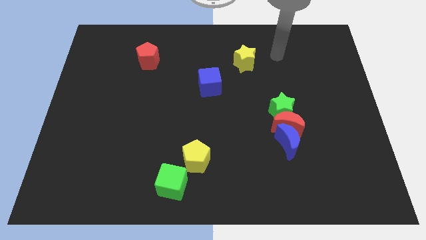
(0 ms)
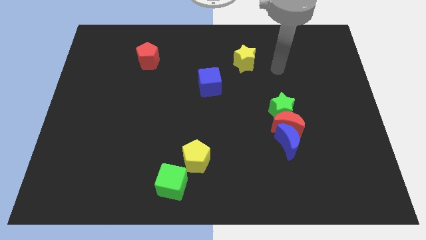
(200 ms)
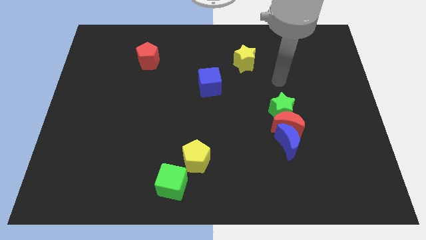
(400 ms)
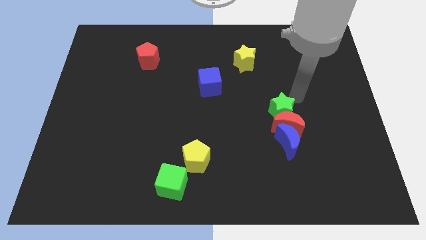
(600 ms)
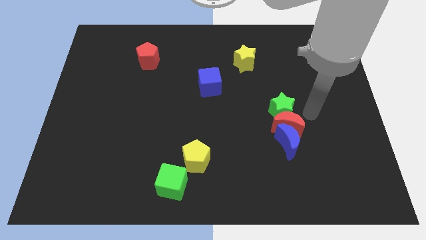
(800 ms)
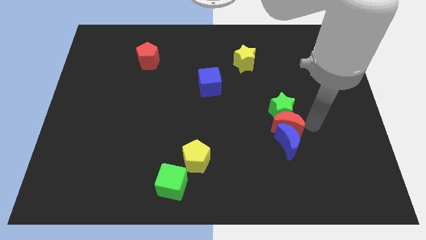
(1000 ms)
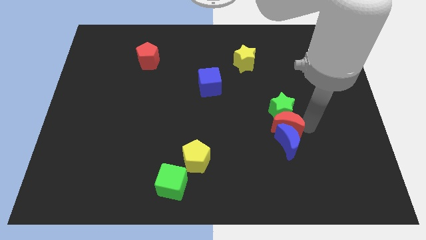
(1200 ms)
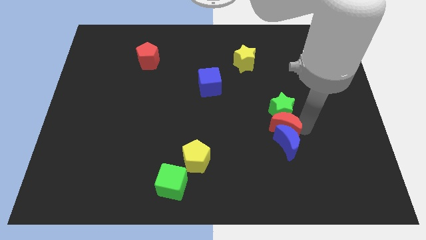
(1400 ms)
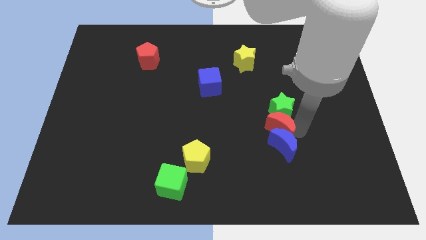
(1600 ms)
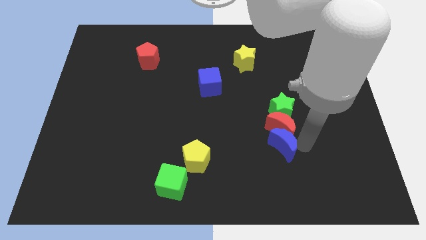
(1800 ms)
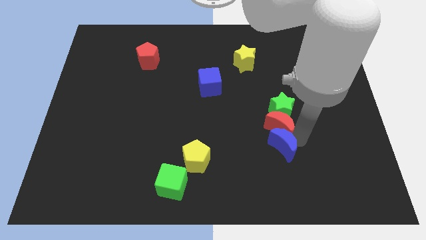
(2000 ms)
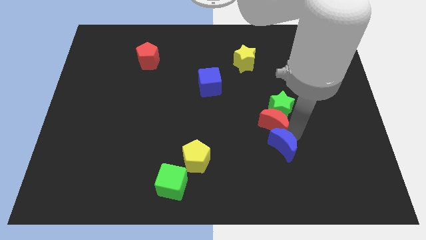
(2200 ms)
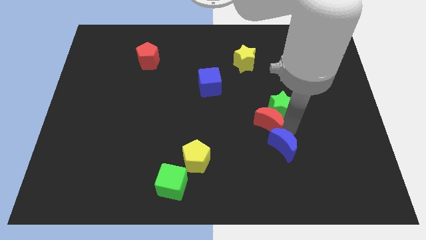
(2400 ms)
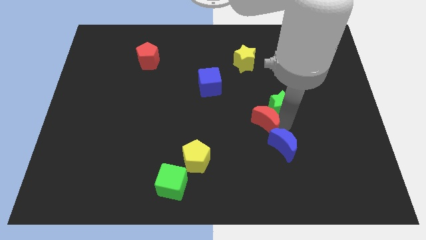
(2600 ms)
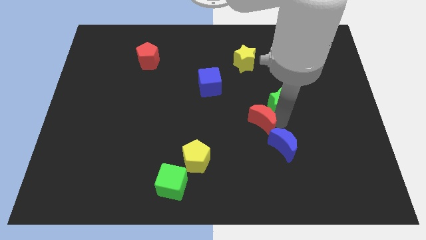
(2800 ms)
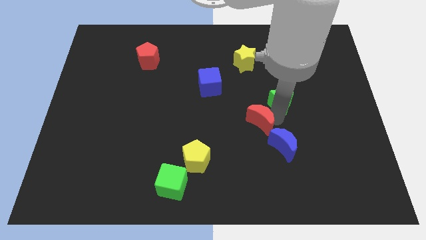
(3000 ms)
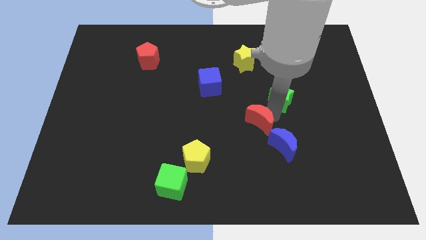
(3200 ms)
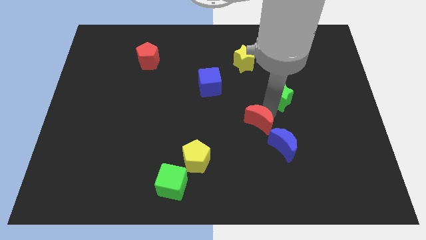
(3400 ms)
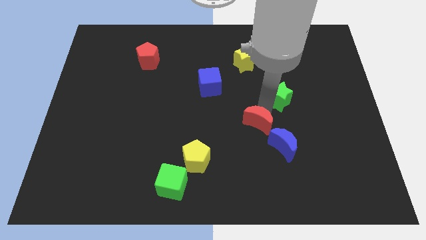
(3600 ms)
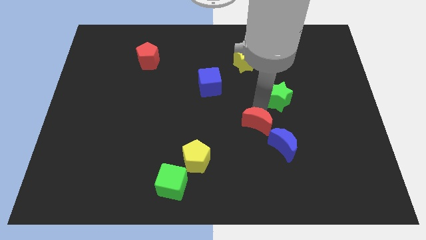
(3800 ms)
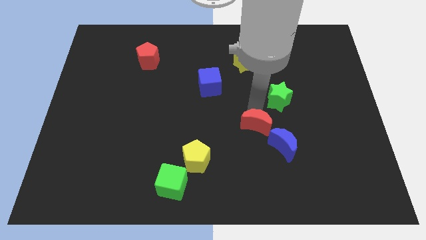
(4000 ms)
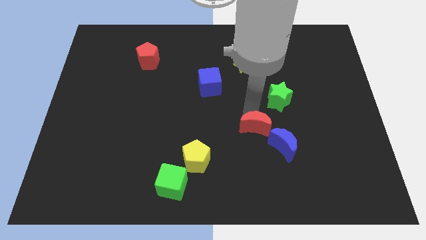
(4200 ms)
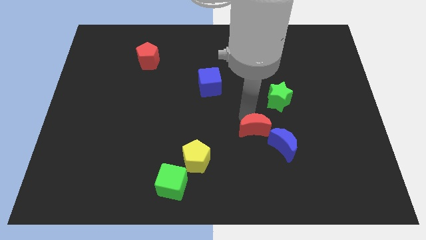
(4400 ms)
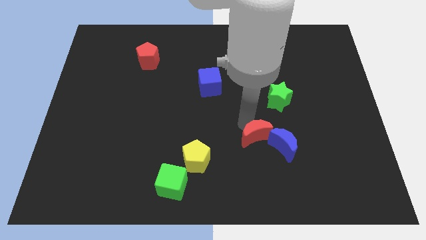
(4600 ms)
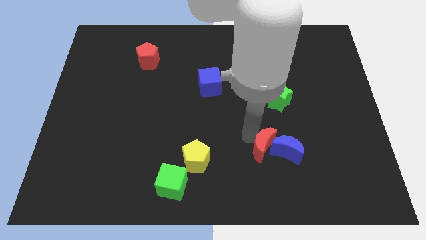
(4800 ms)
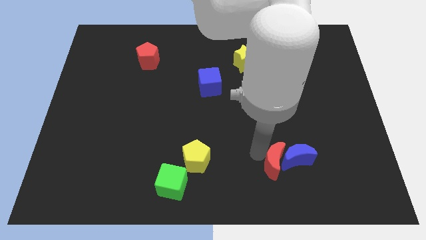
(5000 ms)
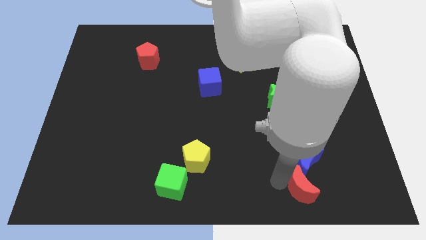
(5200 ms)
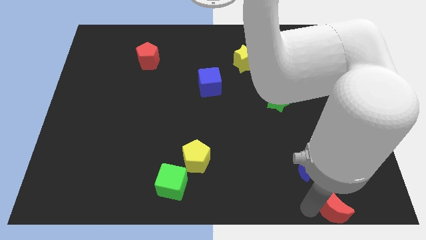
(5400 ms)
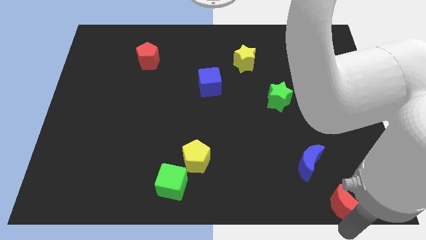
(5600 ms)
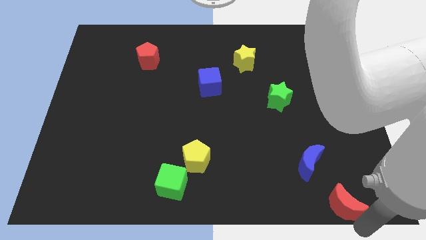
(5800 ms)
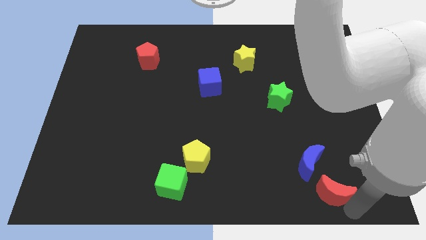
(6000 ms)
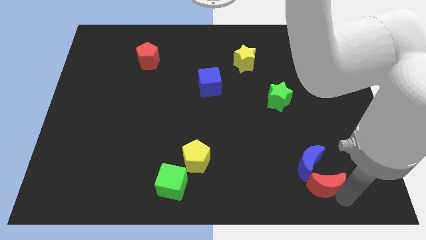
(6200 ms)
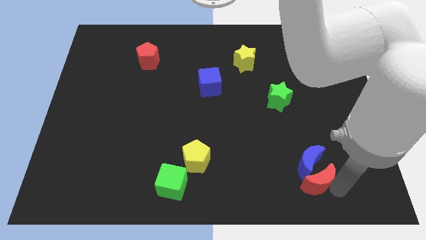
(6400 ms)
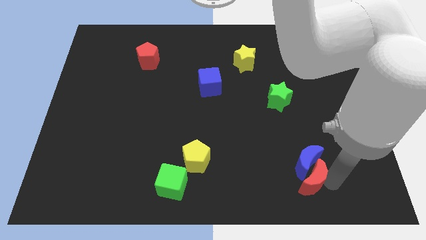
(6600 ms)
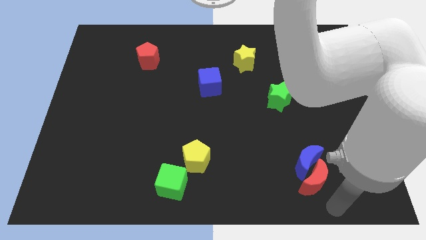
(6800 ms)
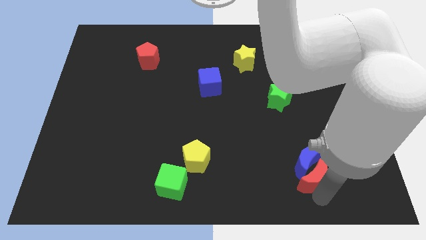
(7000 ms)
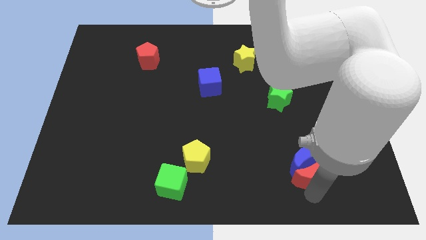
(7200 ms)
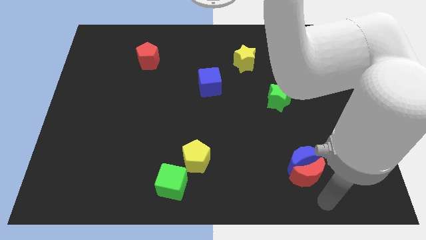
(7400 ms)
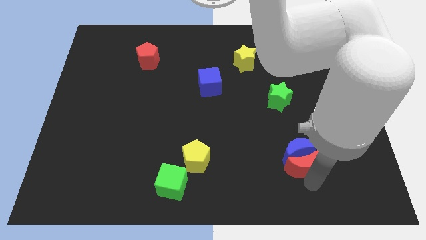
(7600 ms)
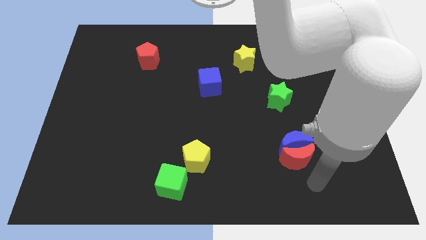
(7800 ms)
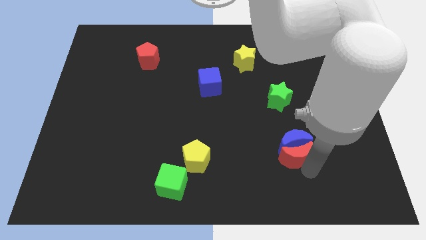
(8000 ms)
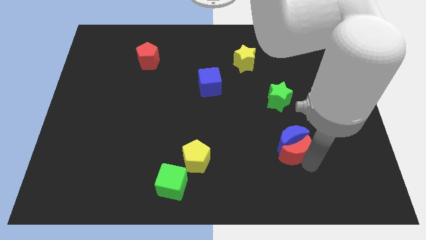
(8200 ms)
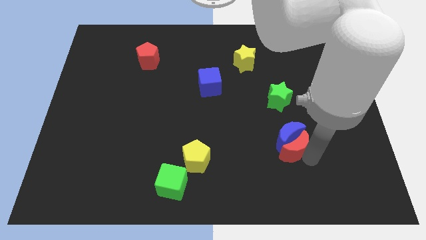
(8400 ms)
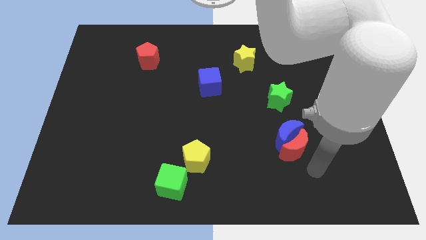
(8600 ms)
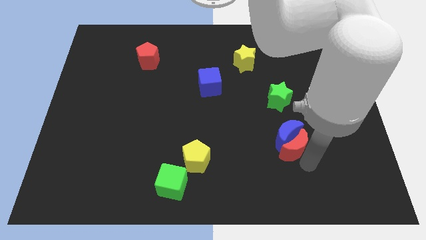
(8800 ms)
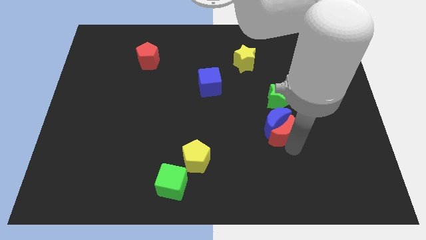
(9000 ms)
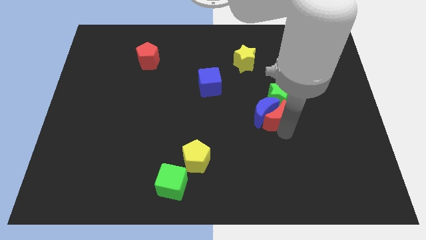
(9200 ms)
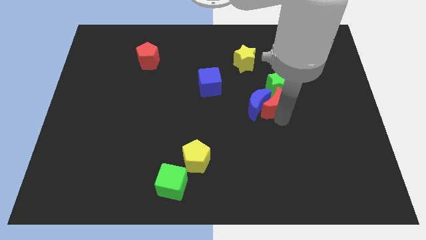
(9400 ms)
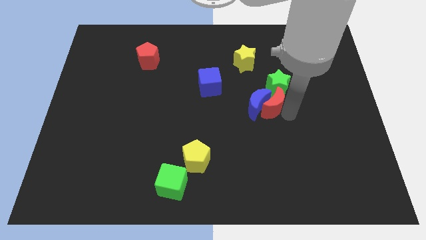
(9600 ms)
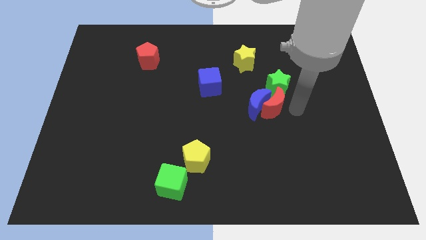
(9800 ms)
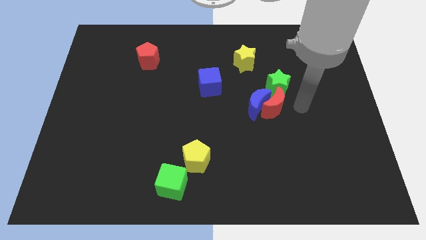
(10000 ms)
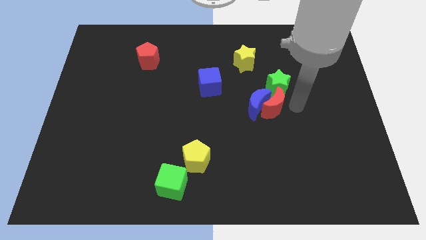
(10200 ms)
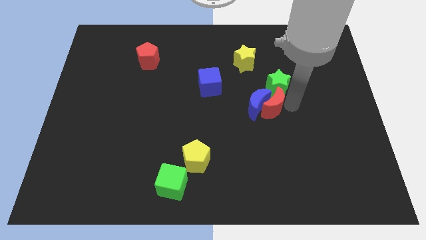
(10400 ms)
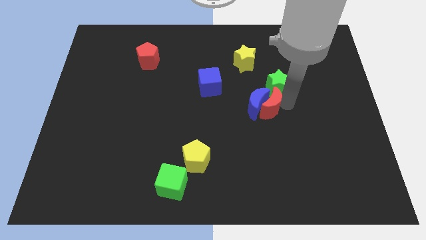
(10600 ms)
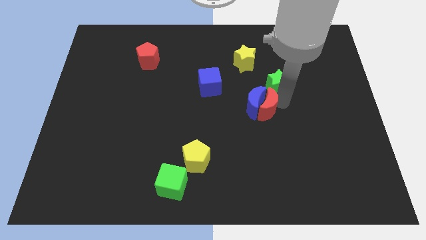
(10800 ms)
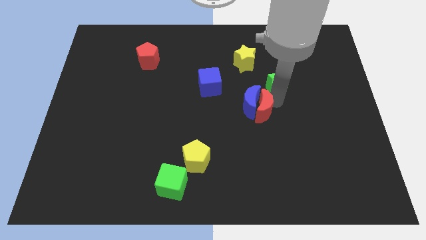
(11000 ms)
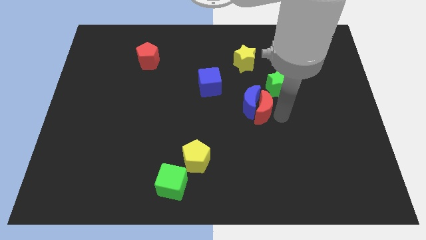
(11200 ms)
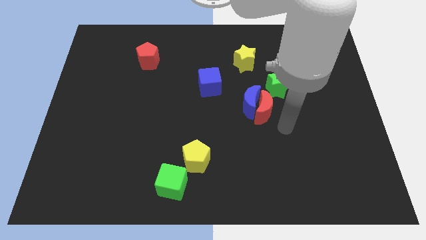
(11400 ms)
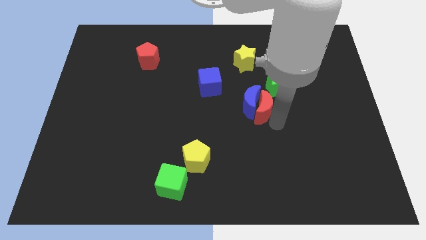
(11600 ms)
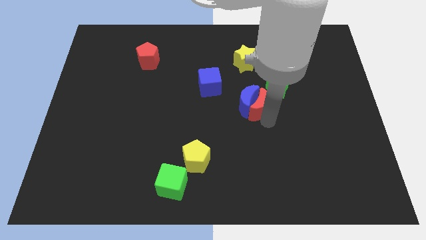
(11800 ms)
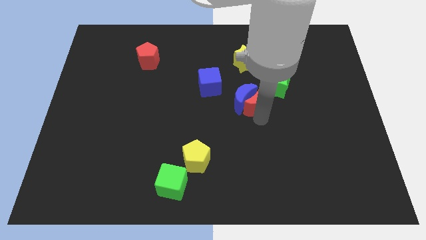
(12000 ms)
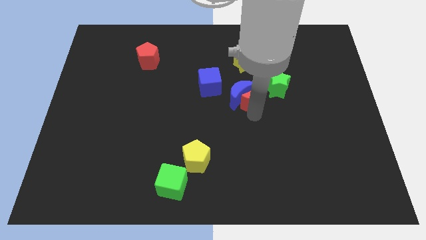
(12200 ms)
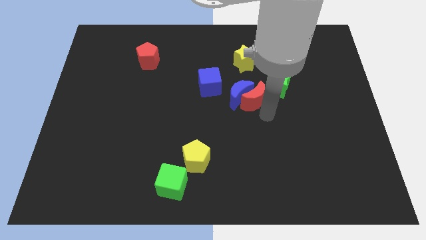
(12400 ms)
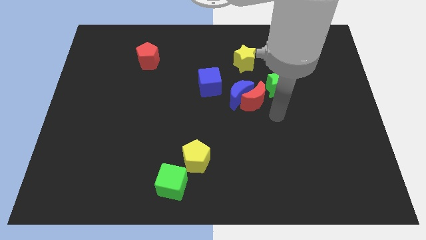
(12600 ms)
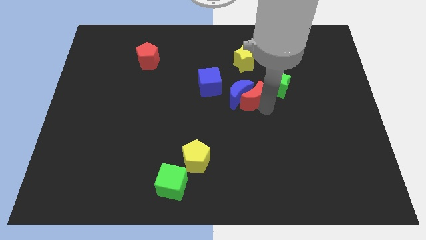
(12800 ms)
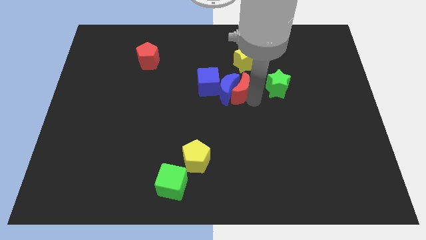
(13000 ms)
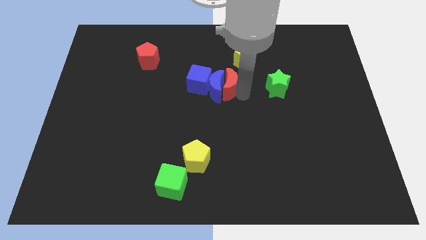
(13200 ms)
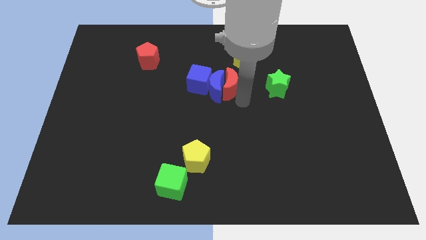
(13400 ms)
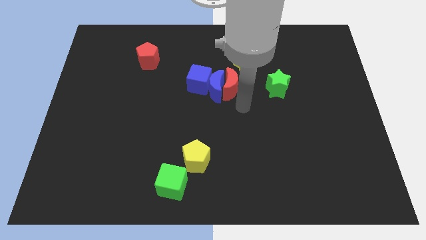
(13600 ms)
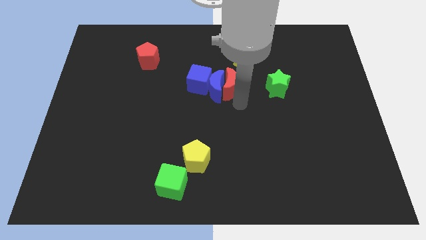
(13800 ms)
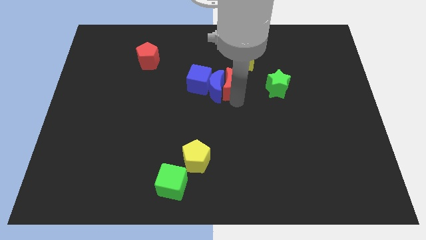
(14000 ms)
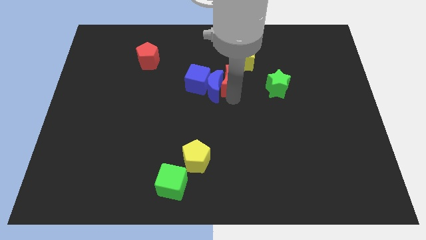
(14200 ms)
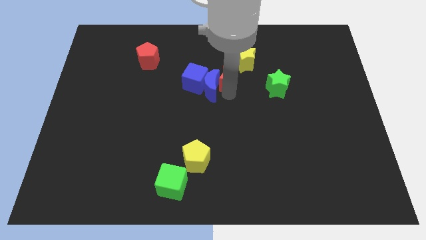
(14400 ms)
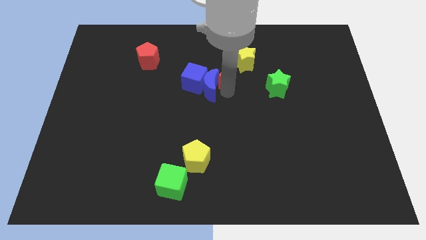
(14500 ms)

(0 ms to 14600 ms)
move the red moon diagonally upwards and left

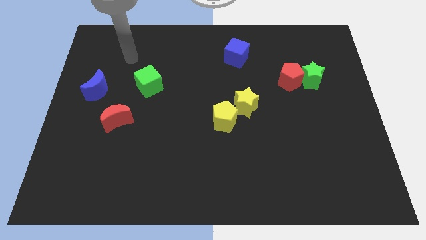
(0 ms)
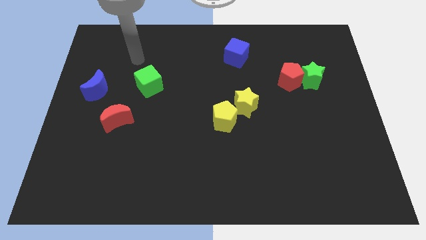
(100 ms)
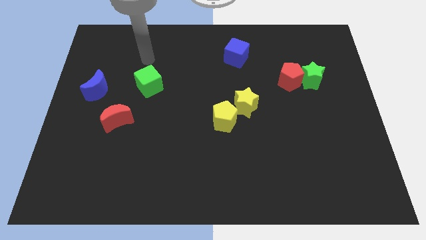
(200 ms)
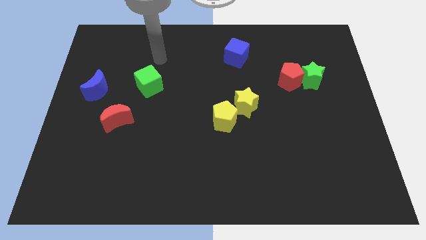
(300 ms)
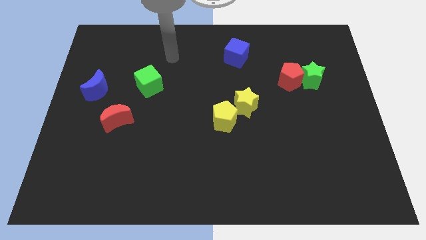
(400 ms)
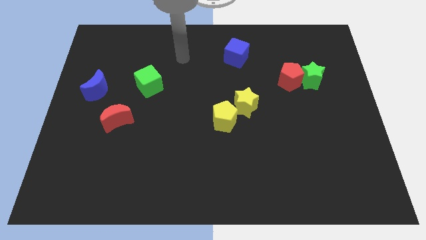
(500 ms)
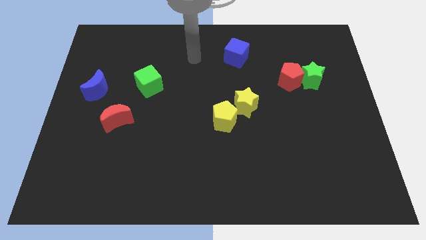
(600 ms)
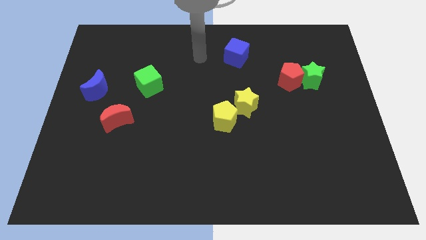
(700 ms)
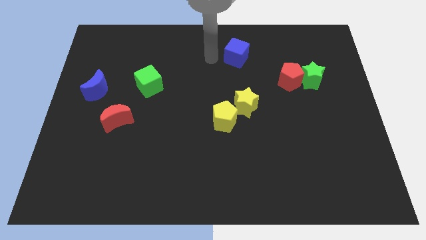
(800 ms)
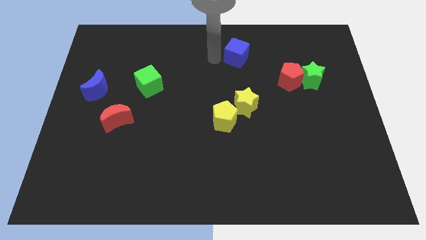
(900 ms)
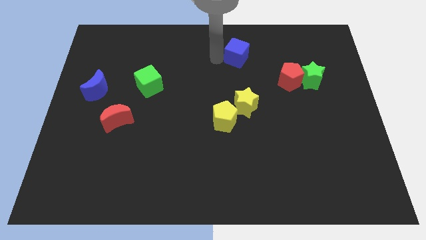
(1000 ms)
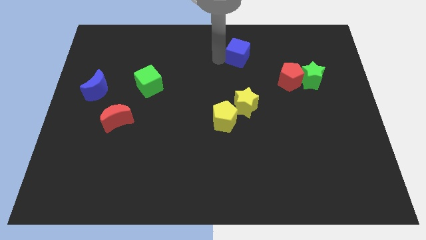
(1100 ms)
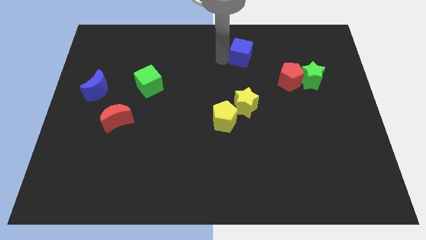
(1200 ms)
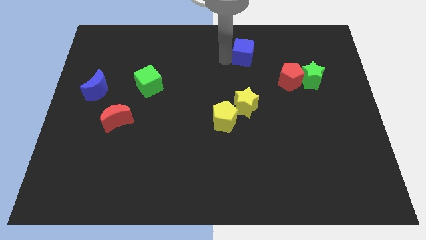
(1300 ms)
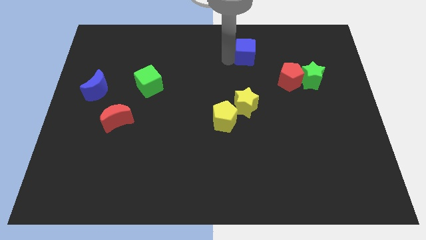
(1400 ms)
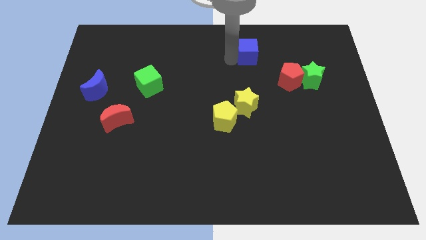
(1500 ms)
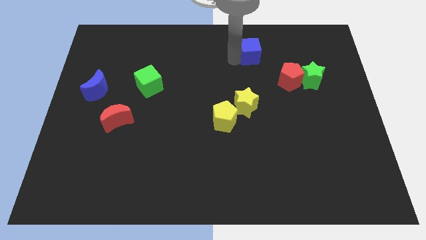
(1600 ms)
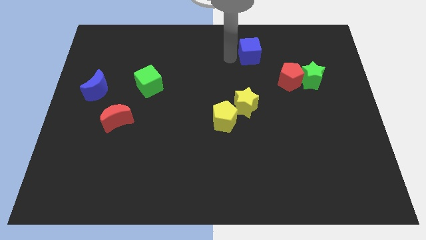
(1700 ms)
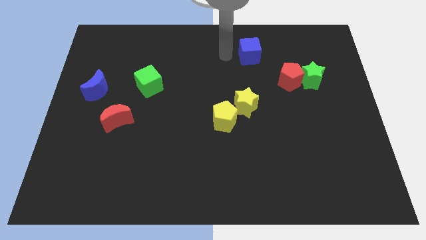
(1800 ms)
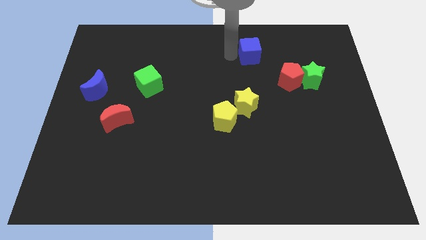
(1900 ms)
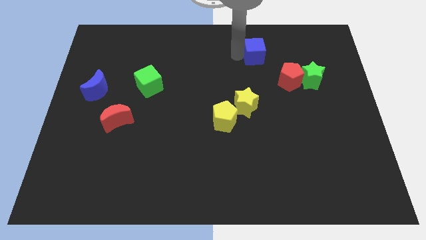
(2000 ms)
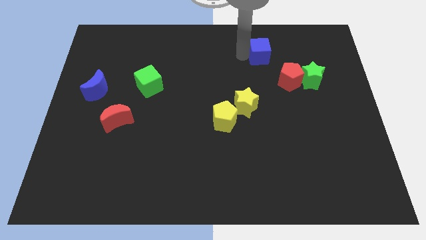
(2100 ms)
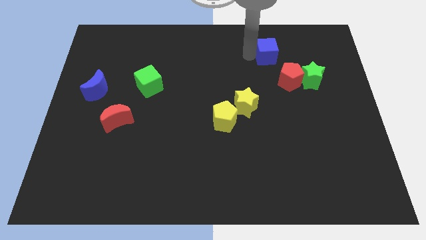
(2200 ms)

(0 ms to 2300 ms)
slide the blue cube to the right a little bit
